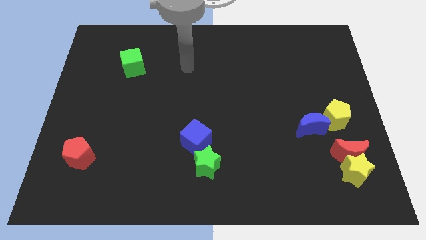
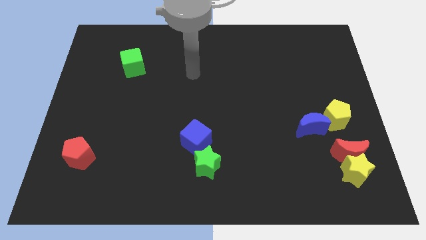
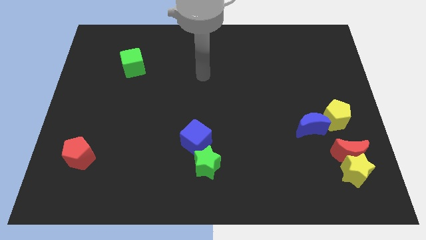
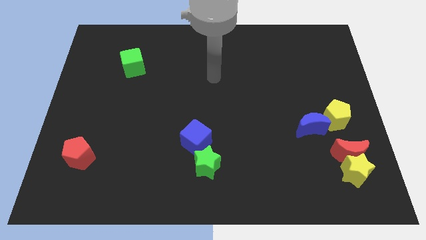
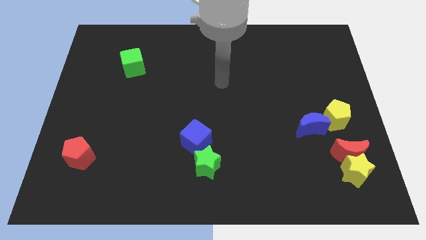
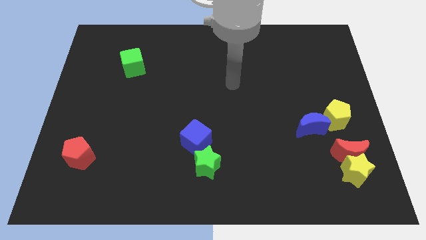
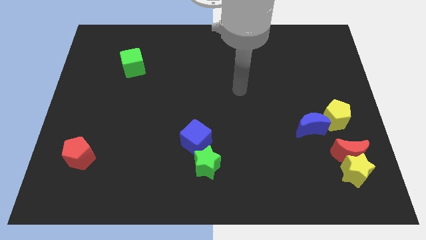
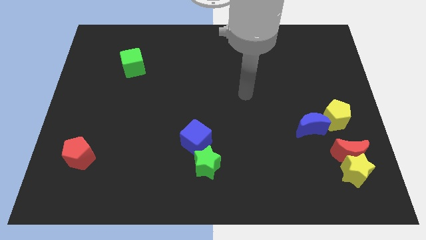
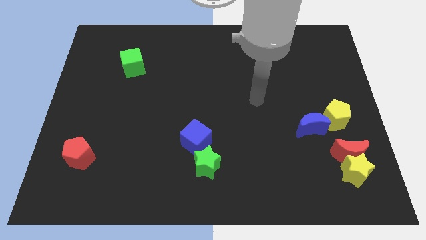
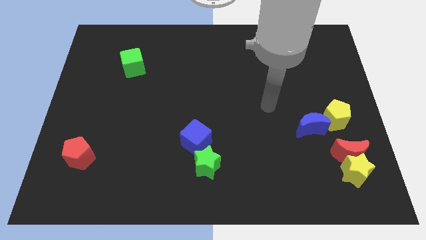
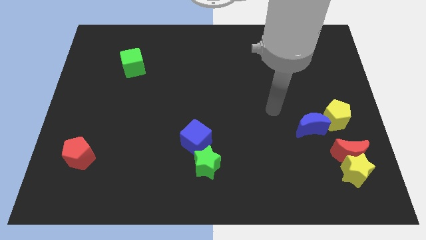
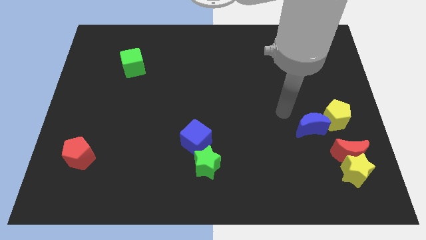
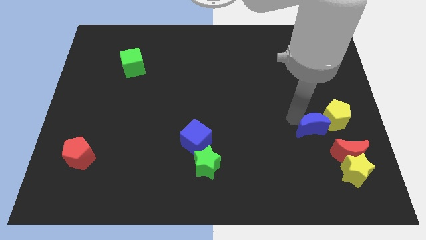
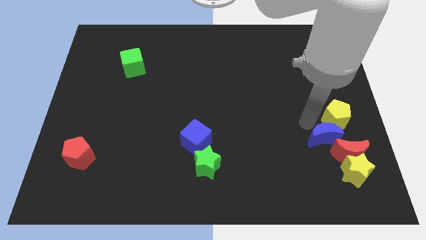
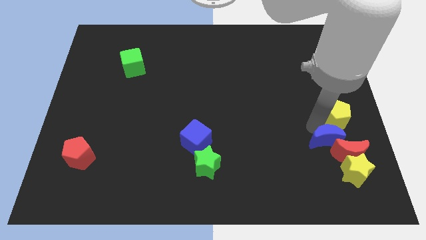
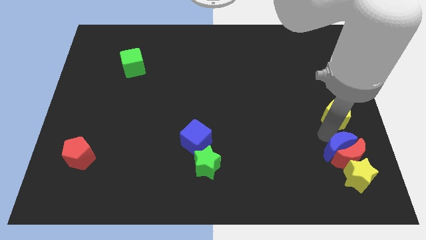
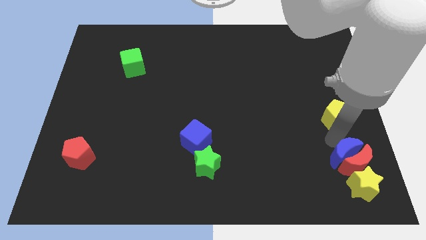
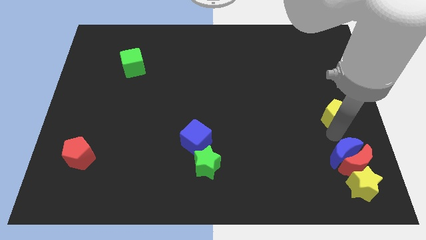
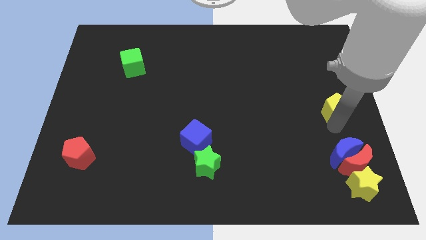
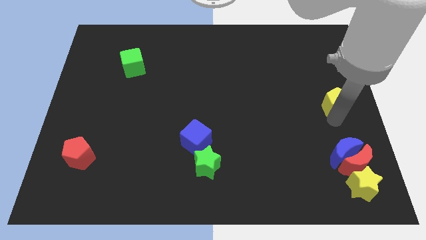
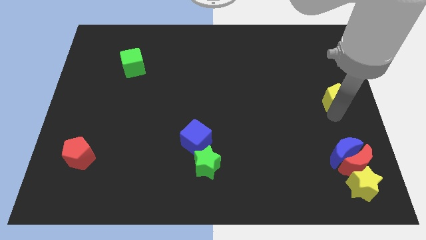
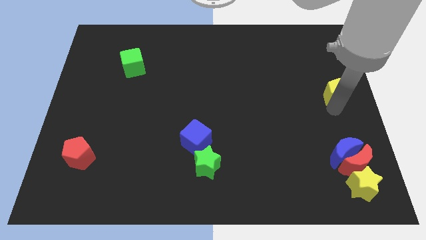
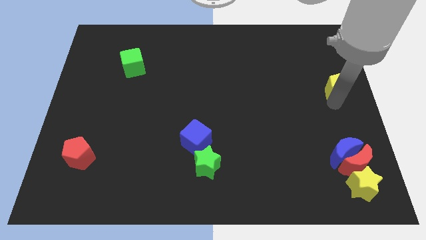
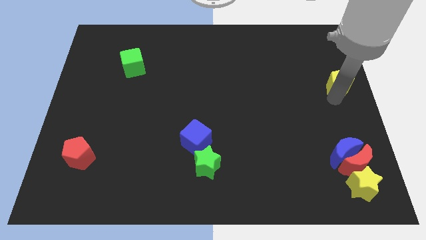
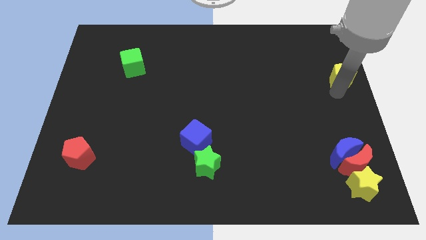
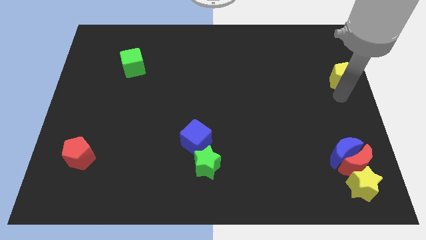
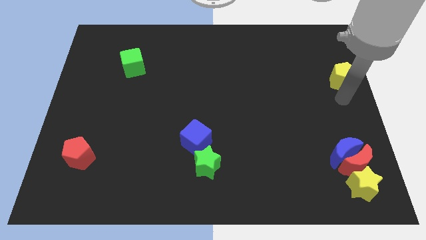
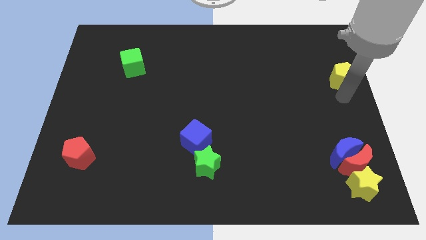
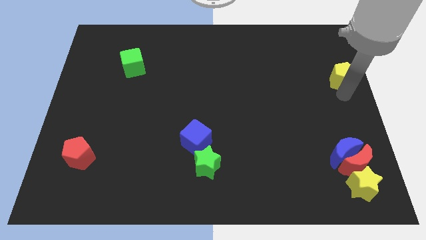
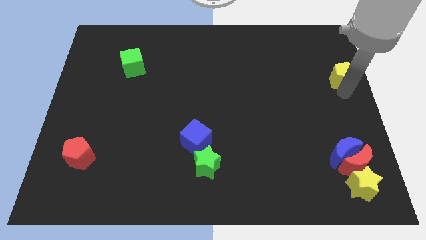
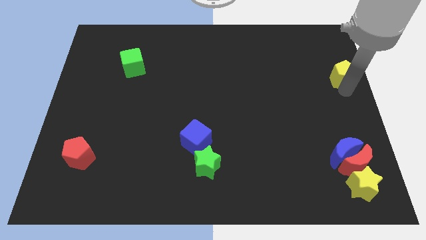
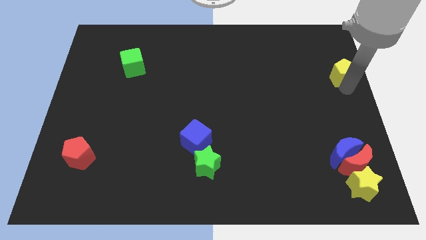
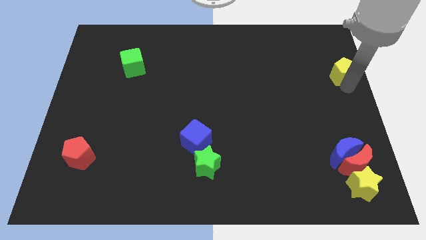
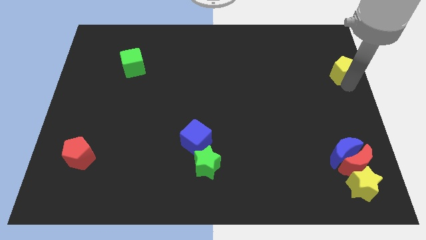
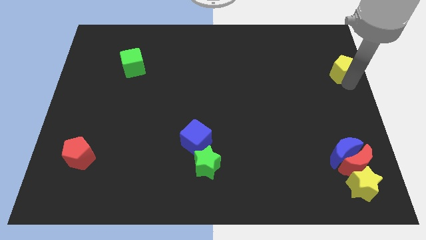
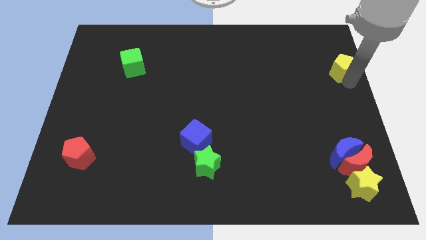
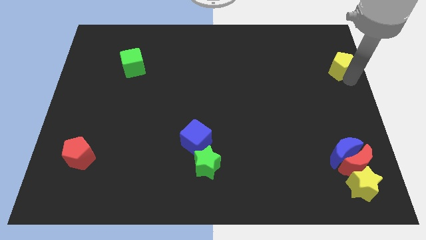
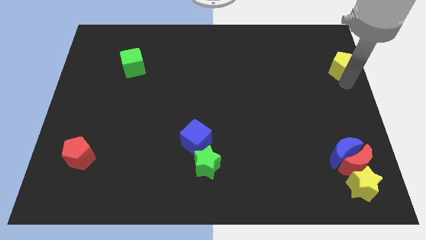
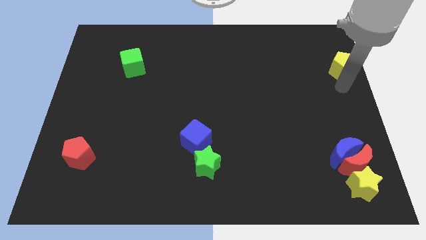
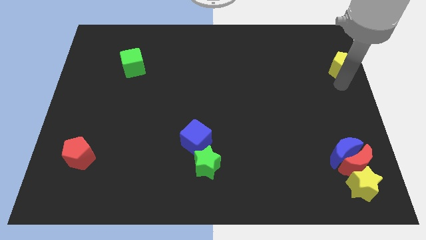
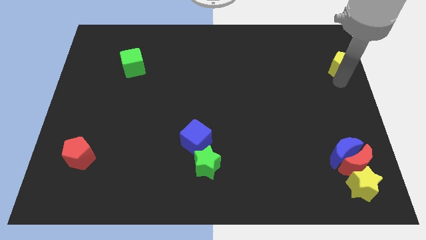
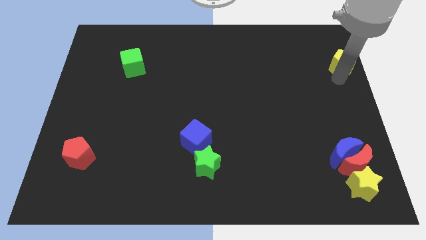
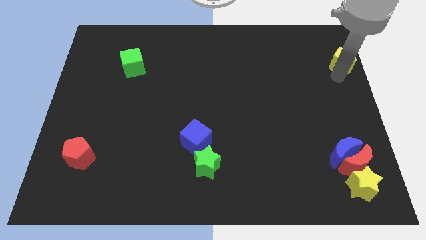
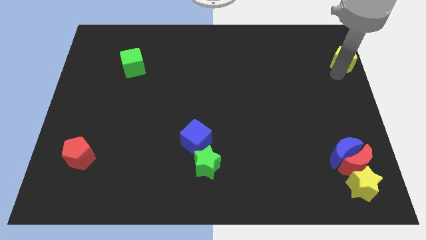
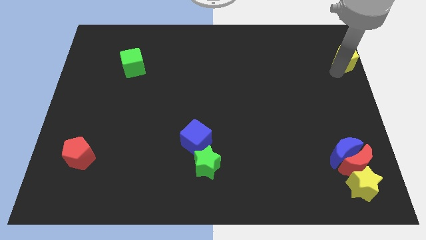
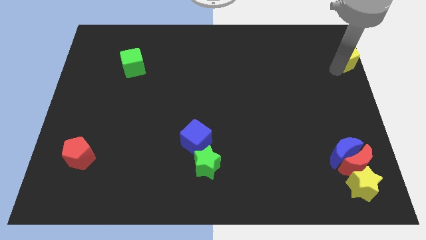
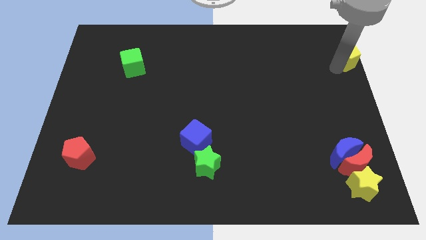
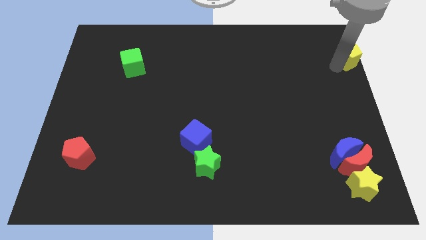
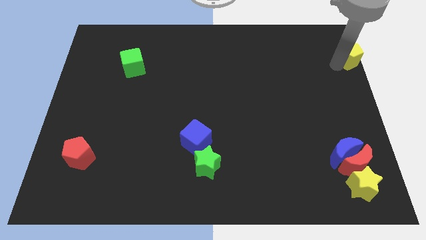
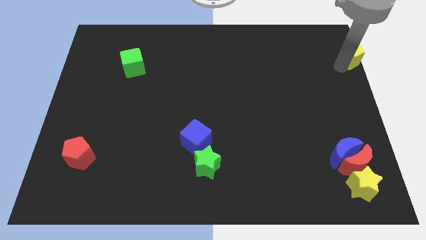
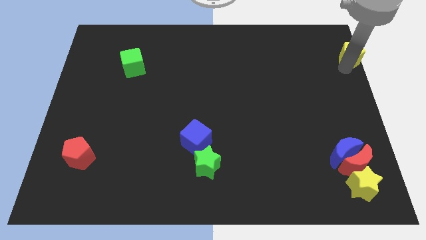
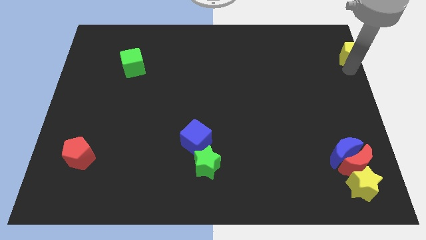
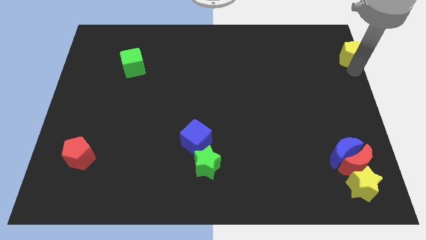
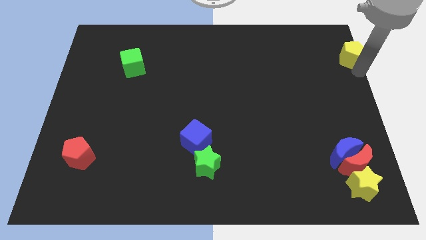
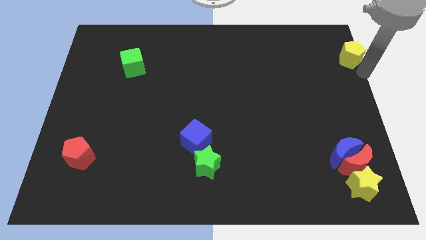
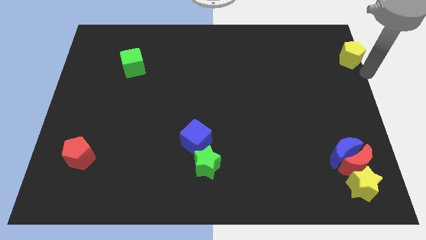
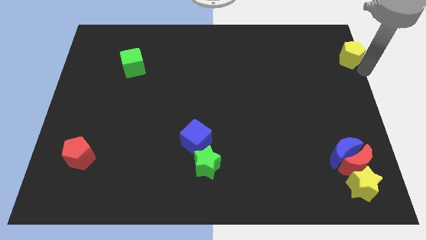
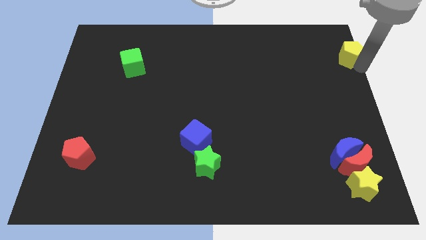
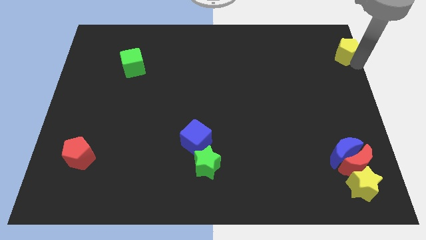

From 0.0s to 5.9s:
push the yellow pentagon to the upper right corner
